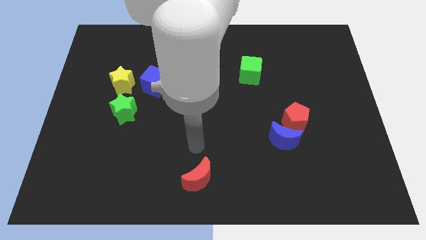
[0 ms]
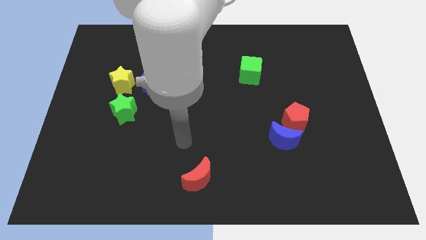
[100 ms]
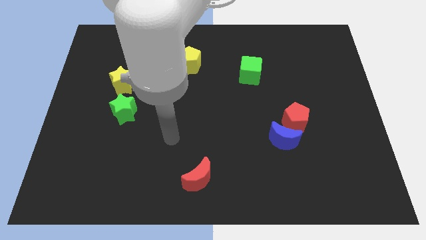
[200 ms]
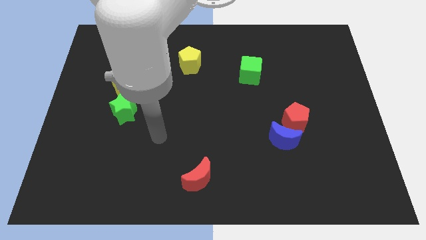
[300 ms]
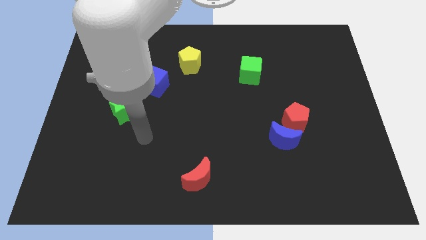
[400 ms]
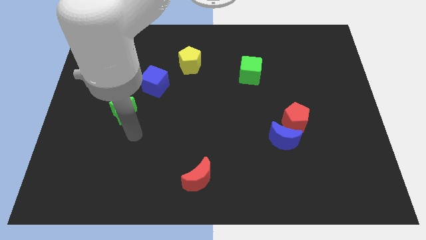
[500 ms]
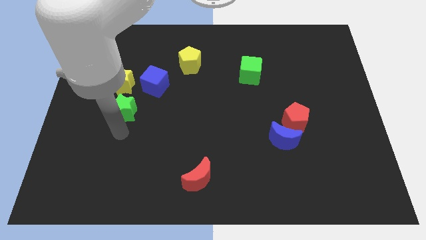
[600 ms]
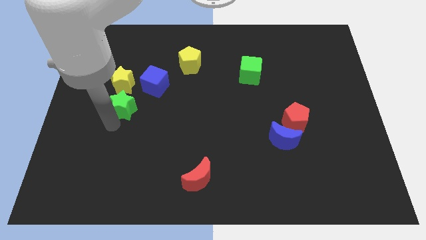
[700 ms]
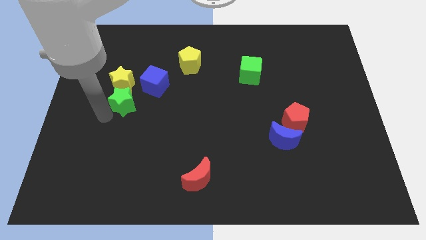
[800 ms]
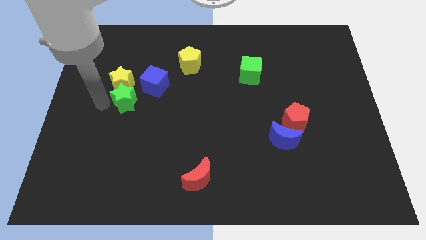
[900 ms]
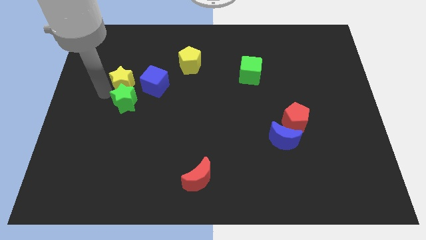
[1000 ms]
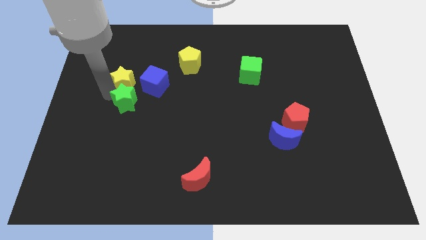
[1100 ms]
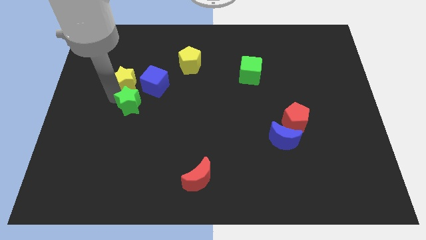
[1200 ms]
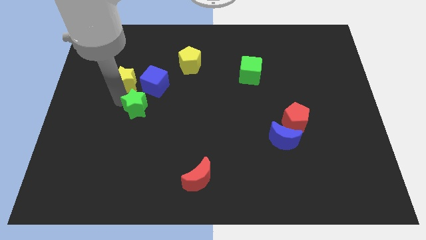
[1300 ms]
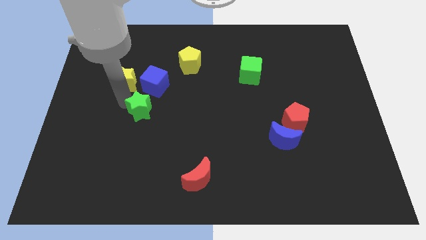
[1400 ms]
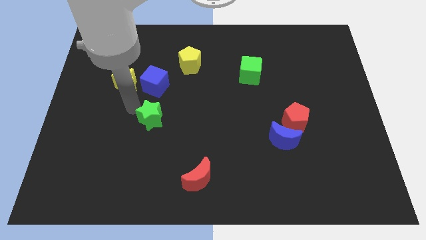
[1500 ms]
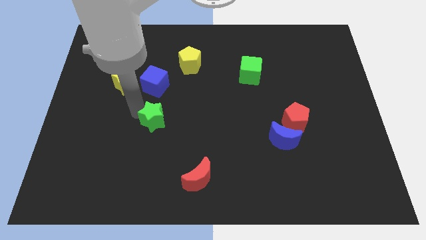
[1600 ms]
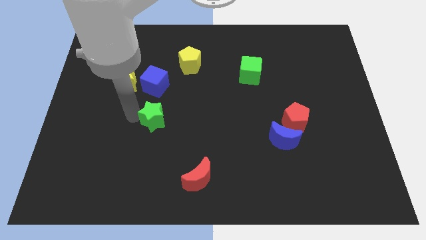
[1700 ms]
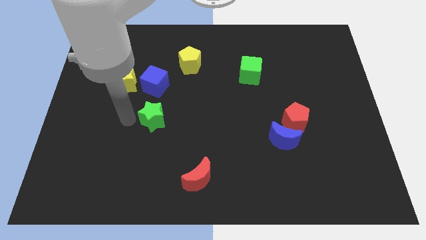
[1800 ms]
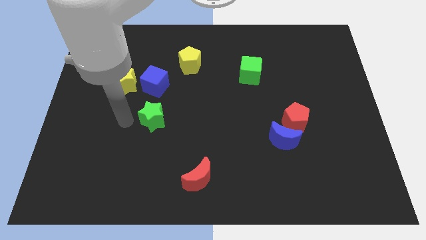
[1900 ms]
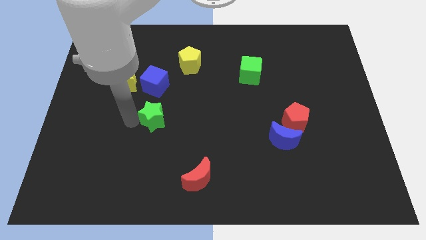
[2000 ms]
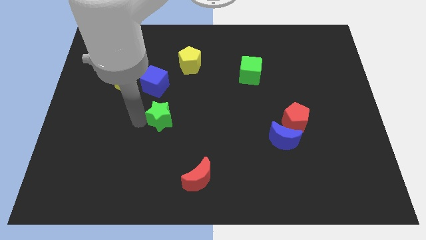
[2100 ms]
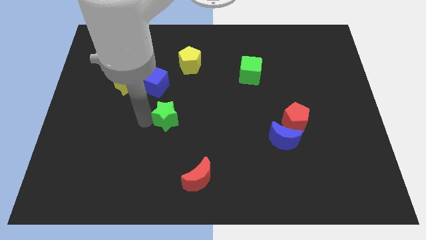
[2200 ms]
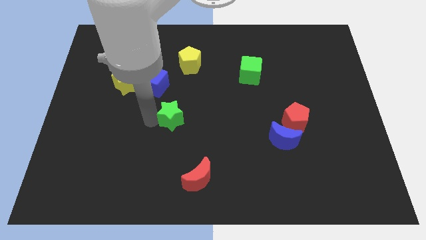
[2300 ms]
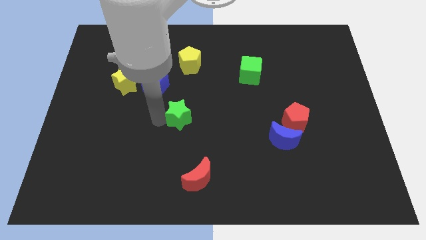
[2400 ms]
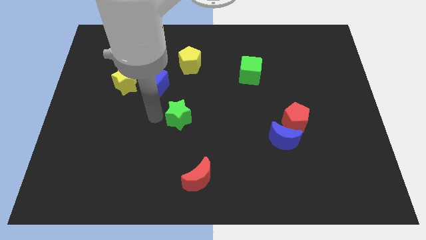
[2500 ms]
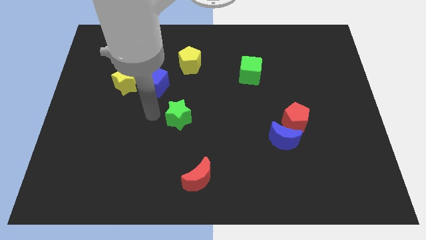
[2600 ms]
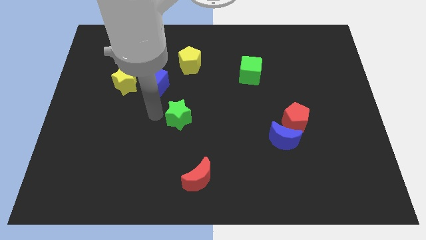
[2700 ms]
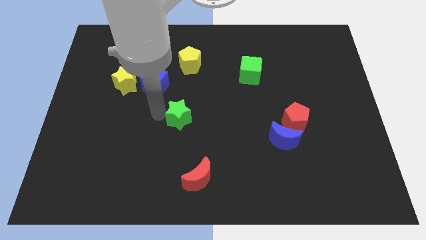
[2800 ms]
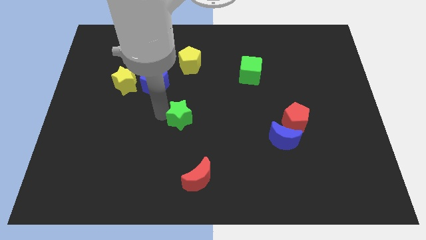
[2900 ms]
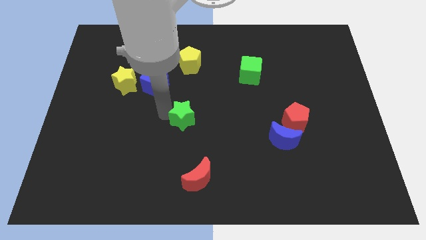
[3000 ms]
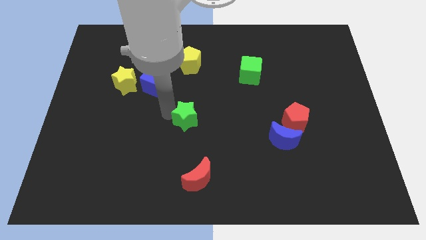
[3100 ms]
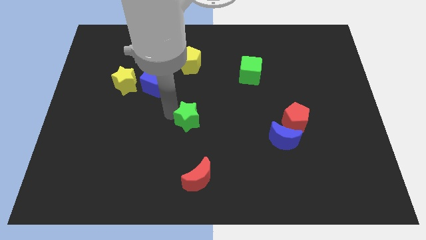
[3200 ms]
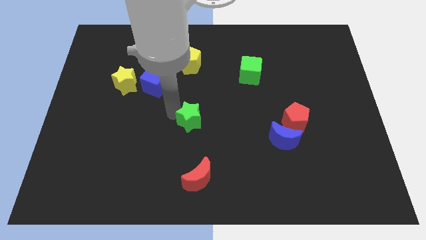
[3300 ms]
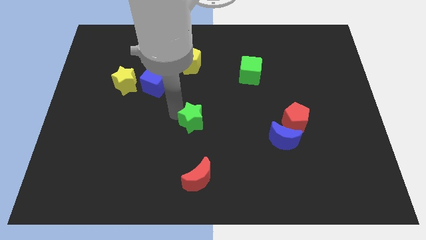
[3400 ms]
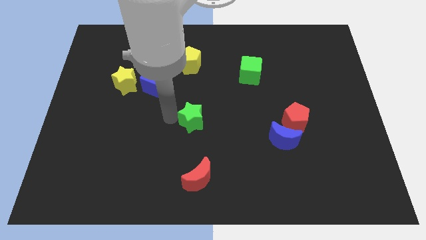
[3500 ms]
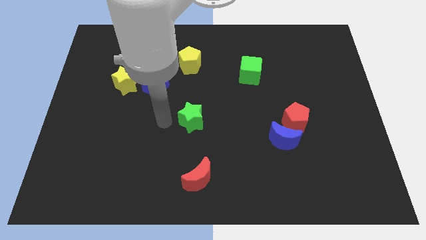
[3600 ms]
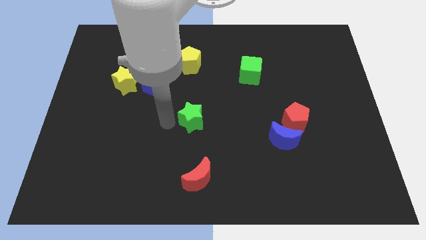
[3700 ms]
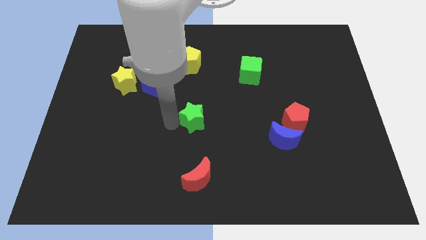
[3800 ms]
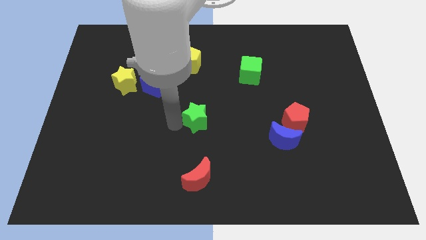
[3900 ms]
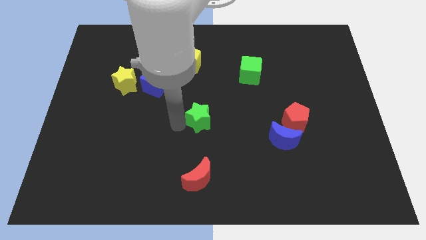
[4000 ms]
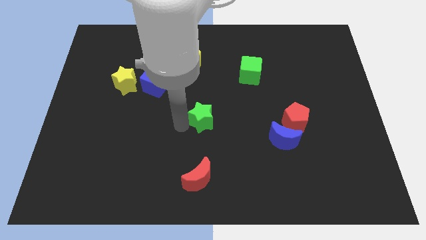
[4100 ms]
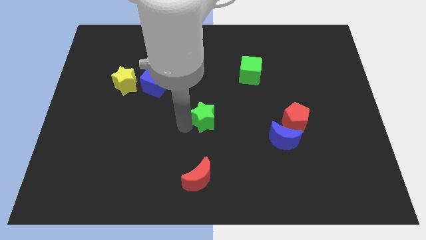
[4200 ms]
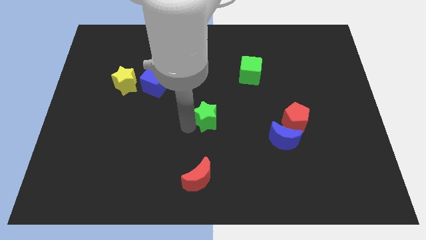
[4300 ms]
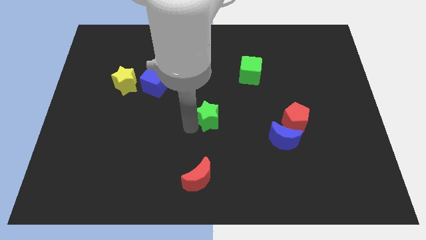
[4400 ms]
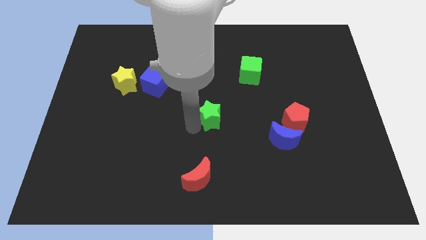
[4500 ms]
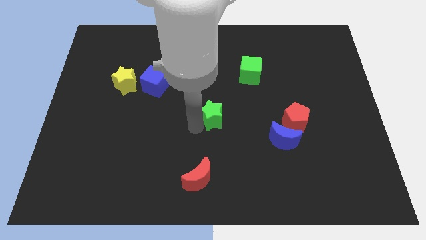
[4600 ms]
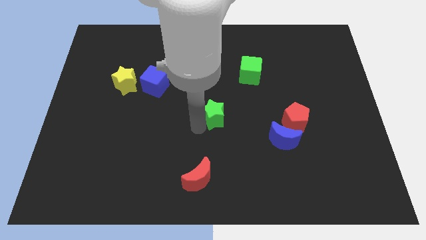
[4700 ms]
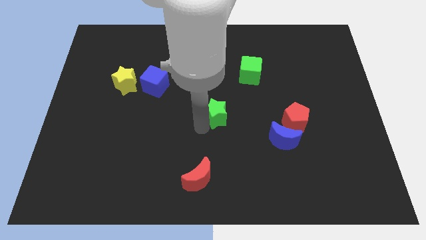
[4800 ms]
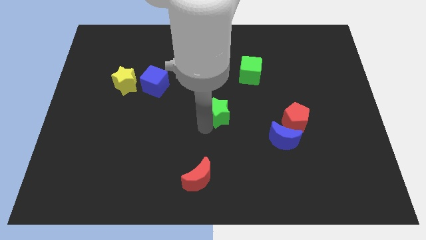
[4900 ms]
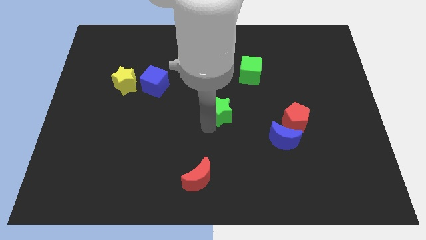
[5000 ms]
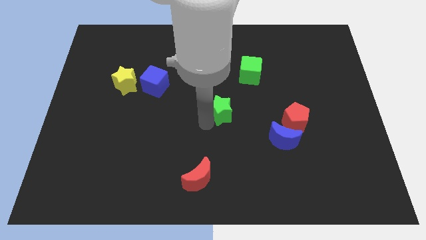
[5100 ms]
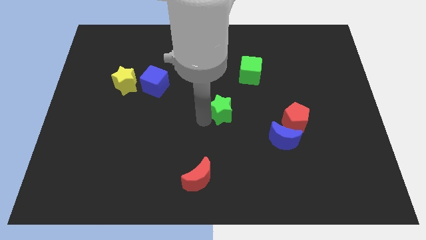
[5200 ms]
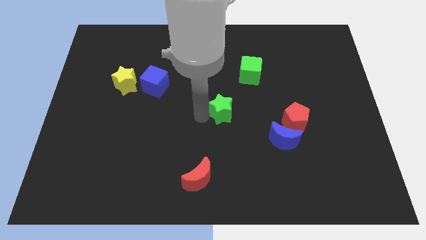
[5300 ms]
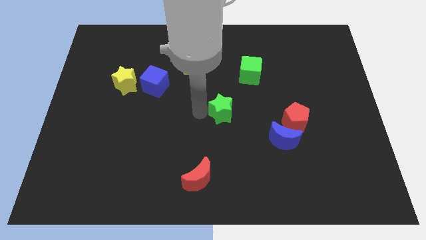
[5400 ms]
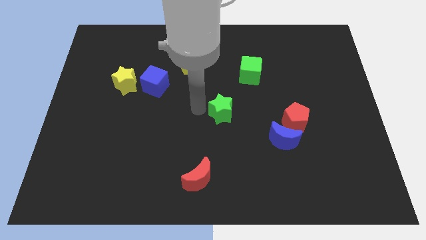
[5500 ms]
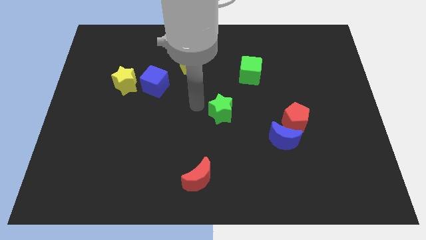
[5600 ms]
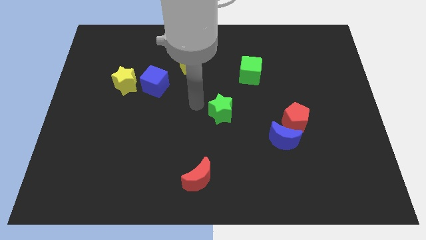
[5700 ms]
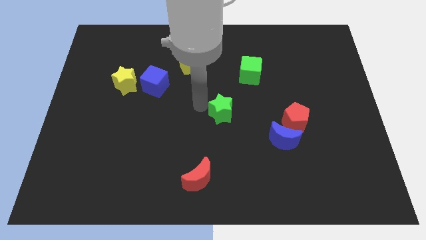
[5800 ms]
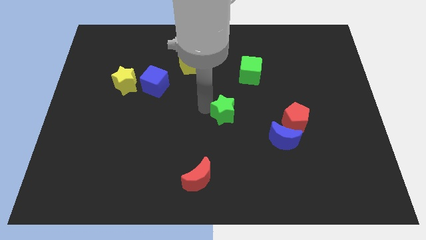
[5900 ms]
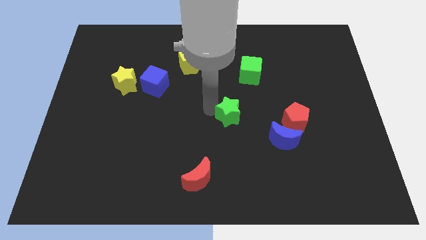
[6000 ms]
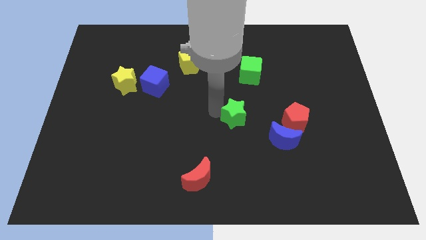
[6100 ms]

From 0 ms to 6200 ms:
put the green star diagonally up and to the left of the blue moon
